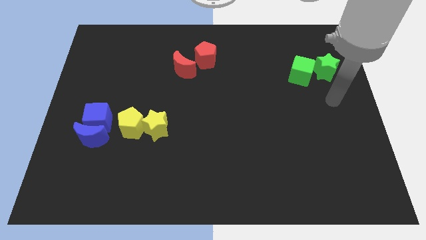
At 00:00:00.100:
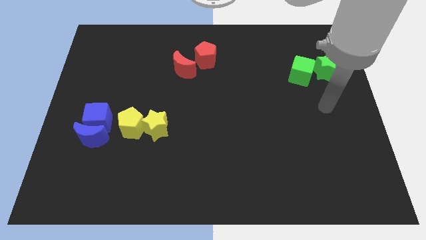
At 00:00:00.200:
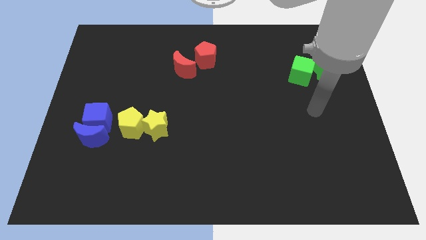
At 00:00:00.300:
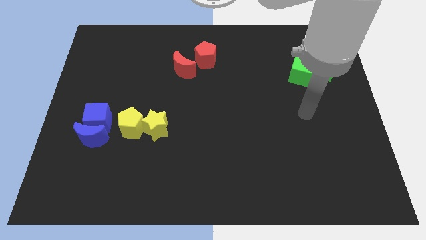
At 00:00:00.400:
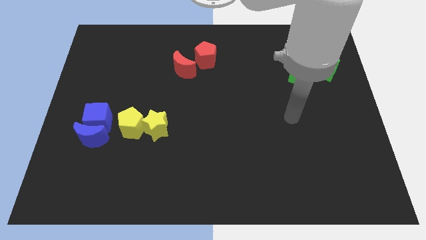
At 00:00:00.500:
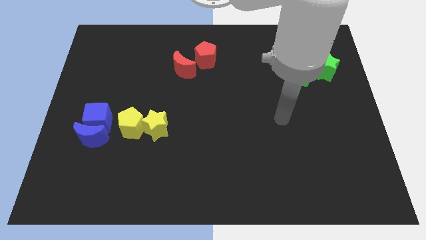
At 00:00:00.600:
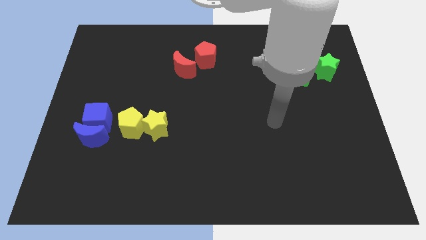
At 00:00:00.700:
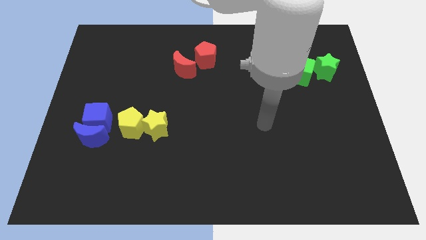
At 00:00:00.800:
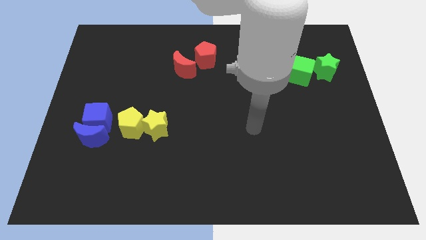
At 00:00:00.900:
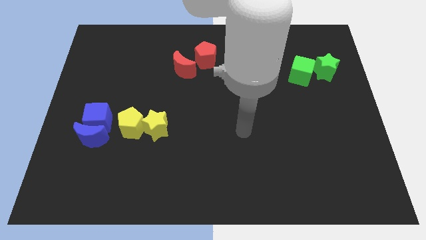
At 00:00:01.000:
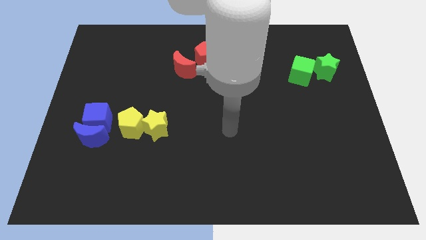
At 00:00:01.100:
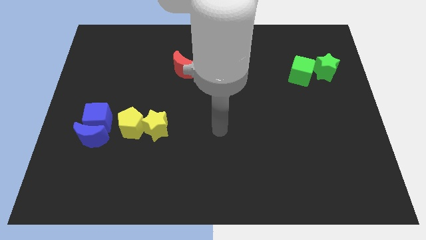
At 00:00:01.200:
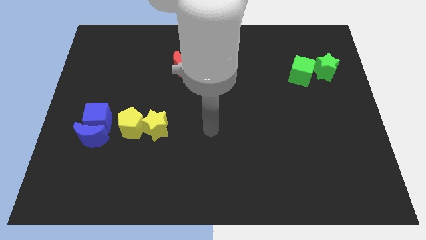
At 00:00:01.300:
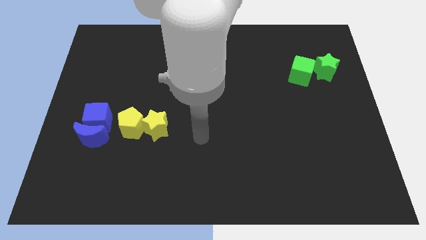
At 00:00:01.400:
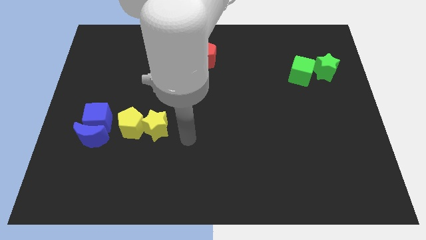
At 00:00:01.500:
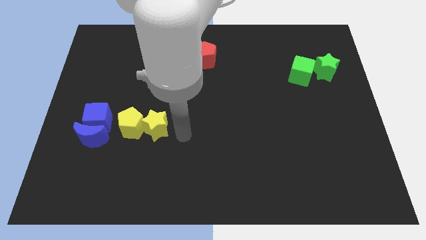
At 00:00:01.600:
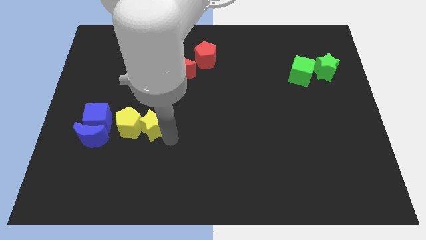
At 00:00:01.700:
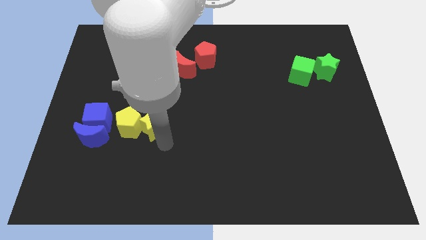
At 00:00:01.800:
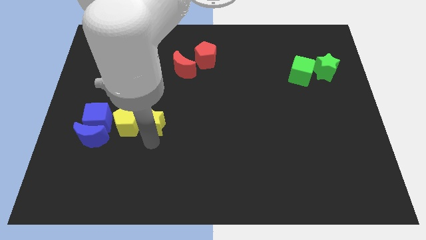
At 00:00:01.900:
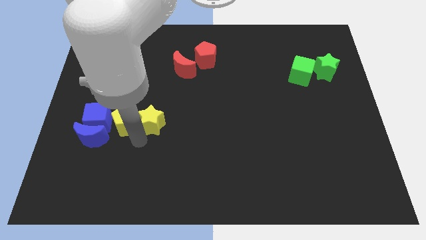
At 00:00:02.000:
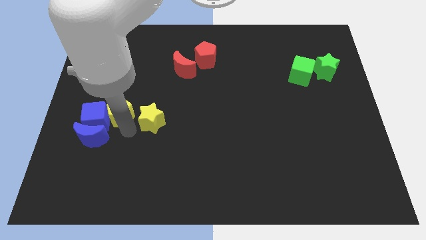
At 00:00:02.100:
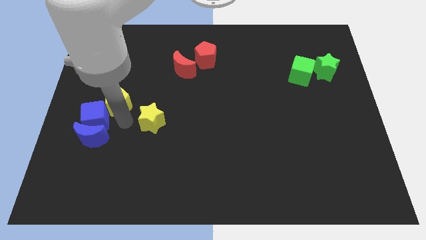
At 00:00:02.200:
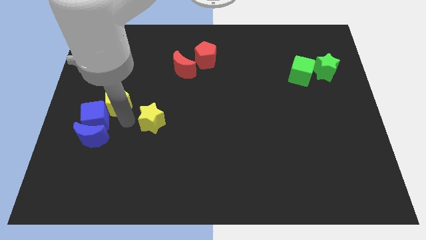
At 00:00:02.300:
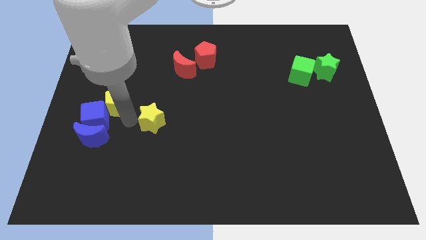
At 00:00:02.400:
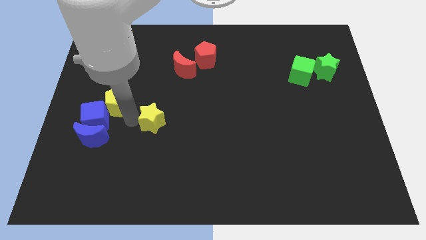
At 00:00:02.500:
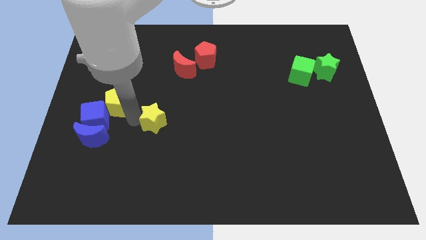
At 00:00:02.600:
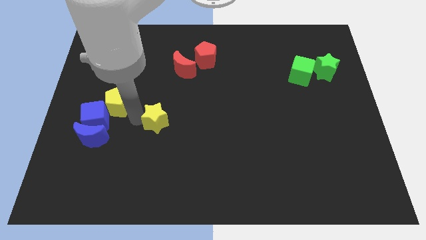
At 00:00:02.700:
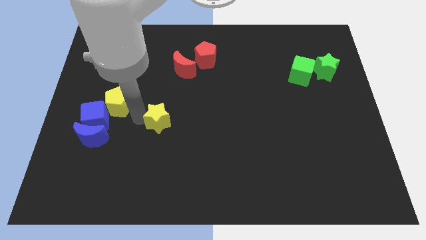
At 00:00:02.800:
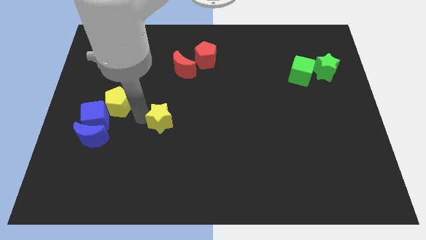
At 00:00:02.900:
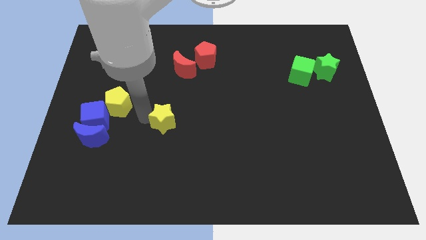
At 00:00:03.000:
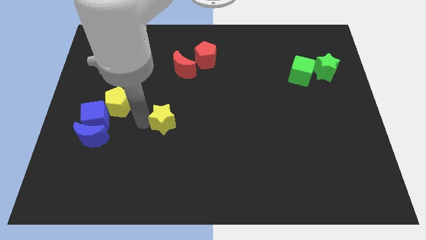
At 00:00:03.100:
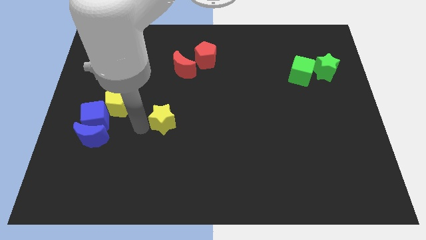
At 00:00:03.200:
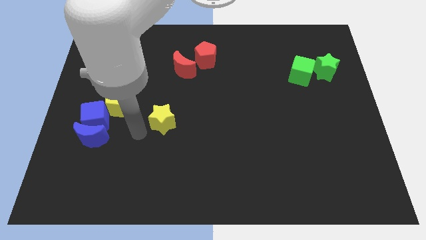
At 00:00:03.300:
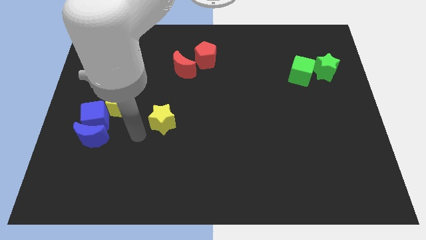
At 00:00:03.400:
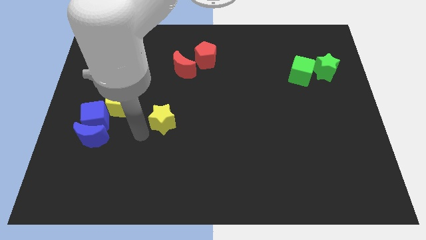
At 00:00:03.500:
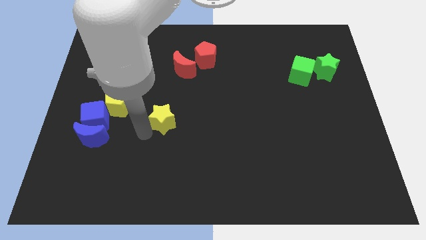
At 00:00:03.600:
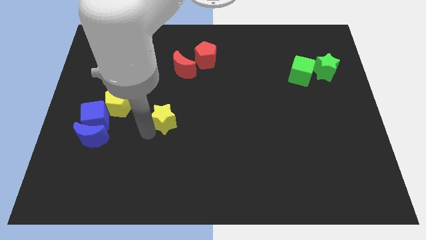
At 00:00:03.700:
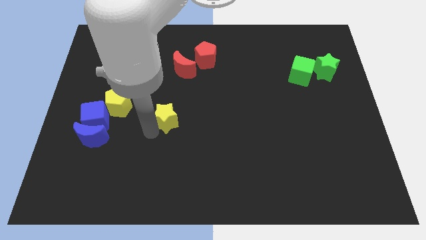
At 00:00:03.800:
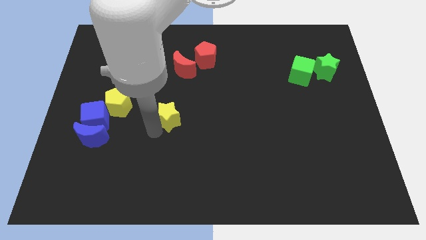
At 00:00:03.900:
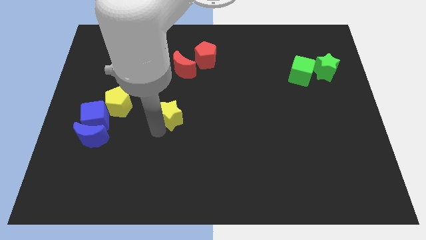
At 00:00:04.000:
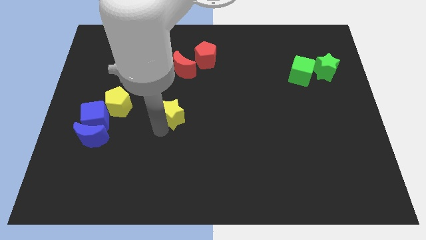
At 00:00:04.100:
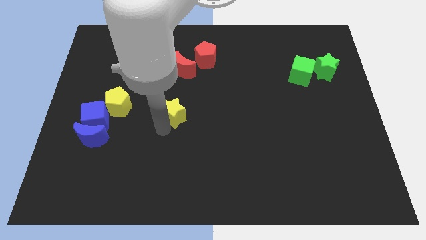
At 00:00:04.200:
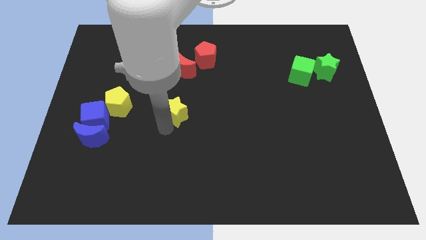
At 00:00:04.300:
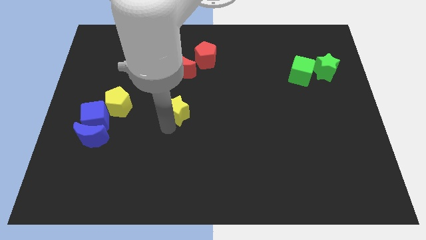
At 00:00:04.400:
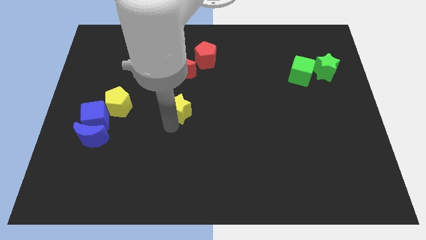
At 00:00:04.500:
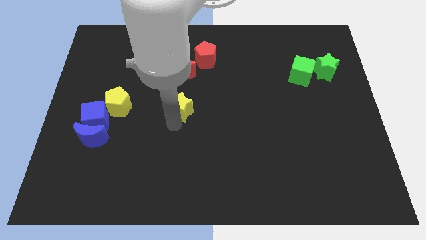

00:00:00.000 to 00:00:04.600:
slightly slide the yellow star up and right

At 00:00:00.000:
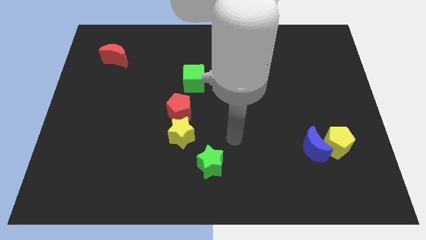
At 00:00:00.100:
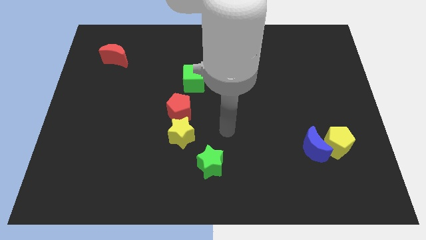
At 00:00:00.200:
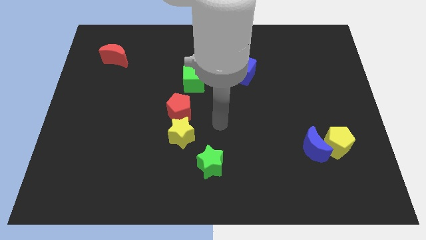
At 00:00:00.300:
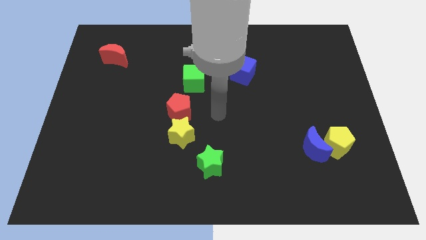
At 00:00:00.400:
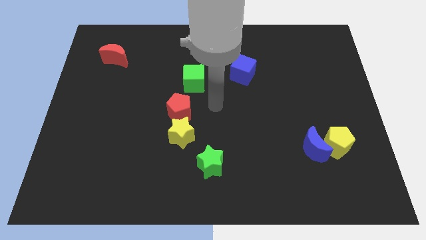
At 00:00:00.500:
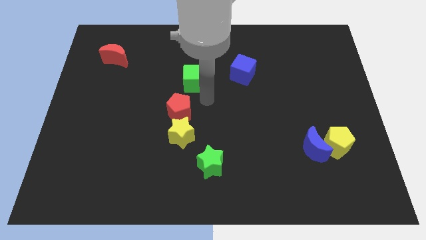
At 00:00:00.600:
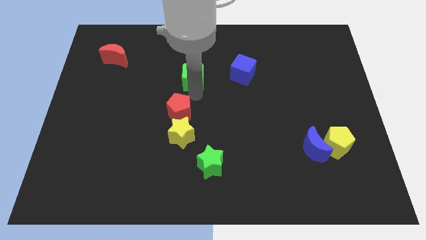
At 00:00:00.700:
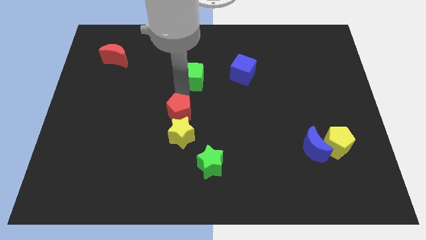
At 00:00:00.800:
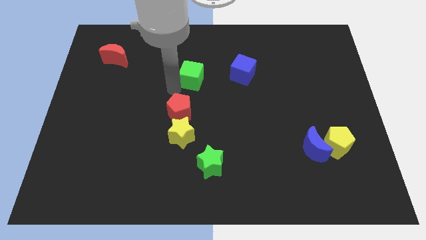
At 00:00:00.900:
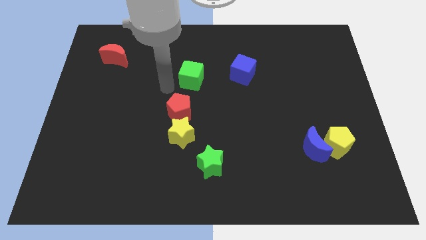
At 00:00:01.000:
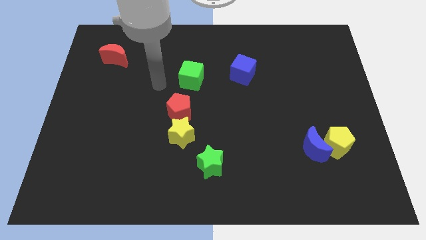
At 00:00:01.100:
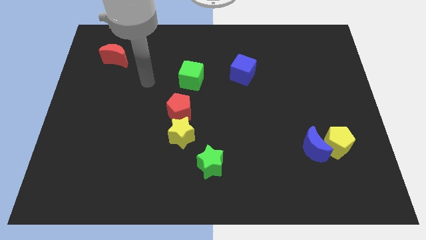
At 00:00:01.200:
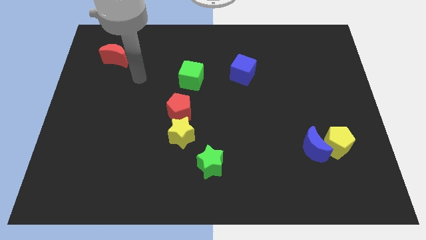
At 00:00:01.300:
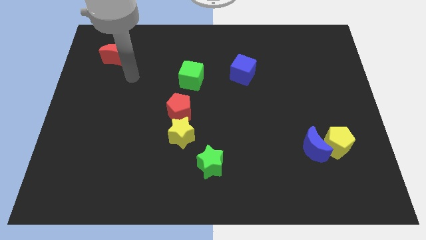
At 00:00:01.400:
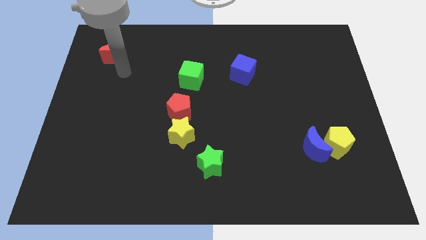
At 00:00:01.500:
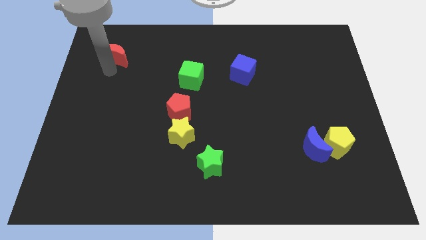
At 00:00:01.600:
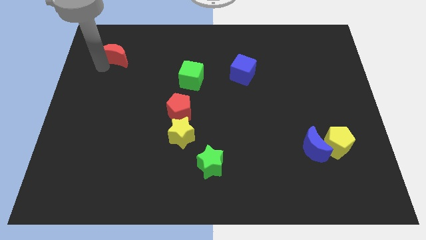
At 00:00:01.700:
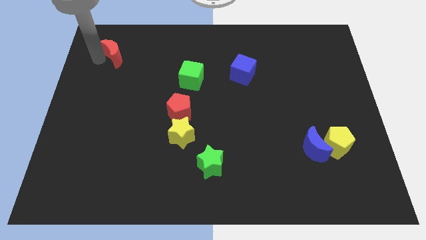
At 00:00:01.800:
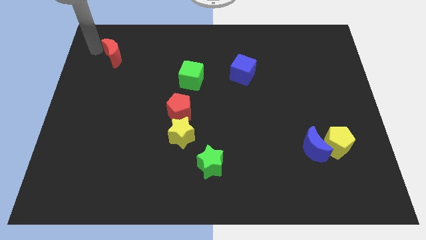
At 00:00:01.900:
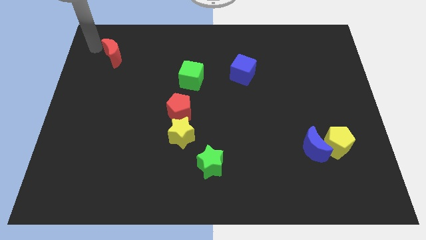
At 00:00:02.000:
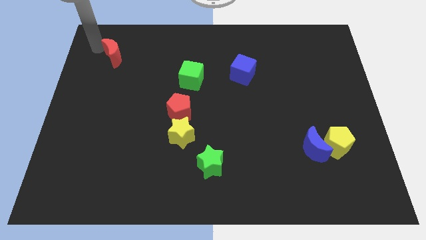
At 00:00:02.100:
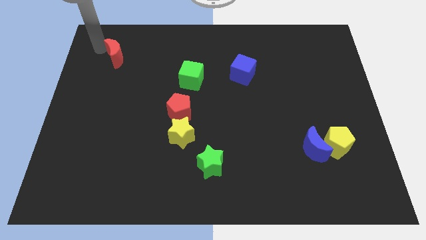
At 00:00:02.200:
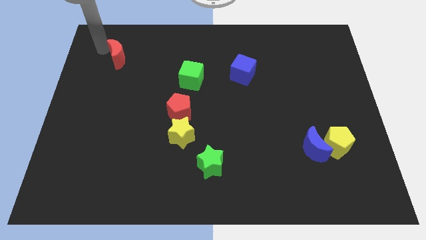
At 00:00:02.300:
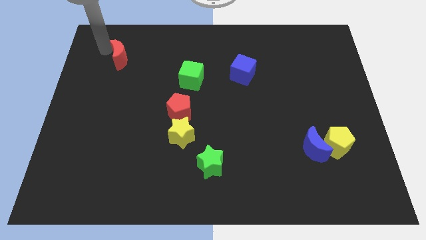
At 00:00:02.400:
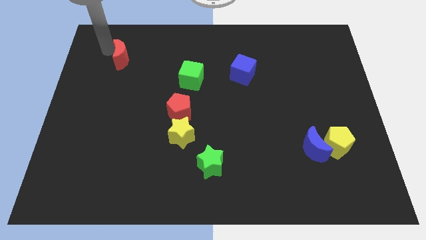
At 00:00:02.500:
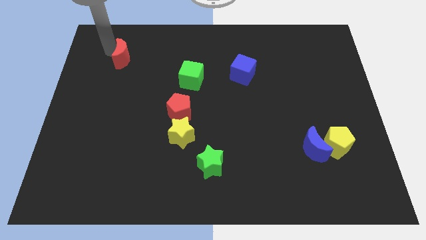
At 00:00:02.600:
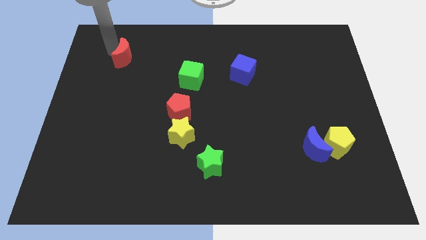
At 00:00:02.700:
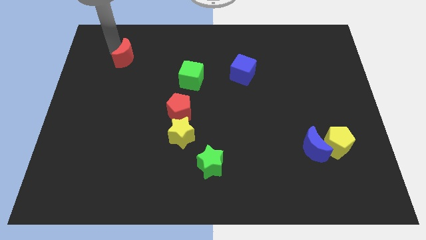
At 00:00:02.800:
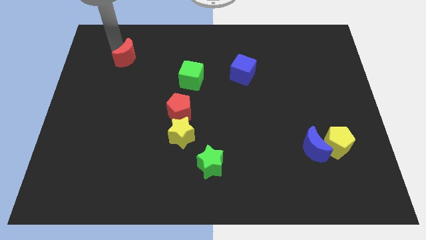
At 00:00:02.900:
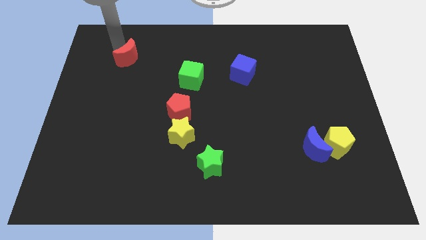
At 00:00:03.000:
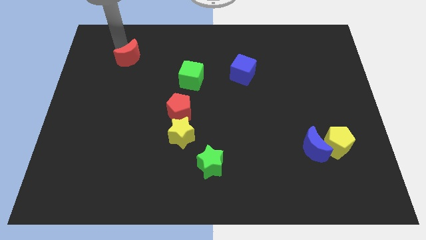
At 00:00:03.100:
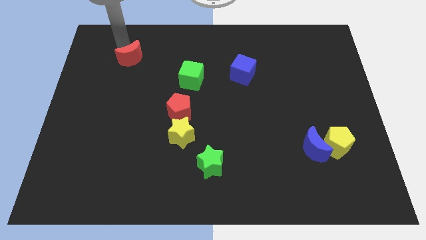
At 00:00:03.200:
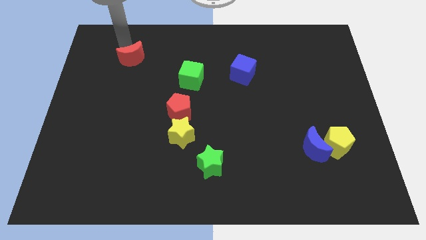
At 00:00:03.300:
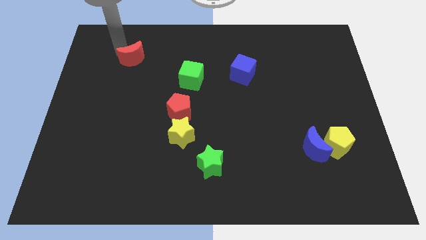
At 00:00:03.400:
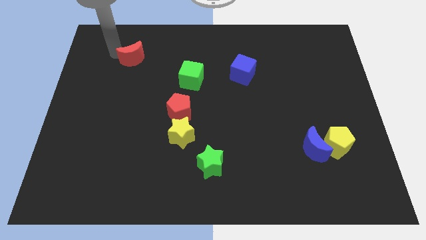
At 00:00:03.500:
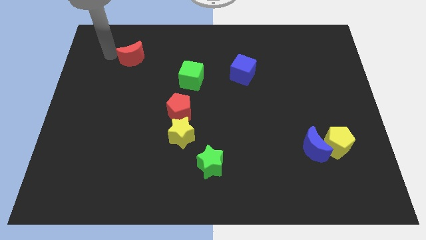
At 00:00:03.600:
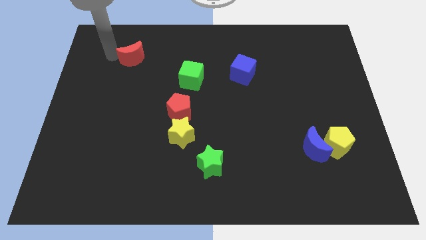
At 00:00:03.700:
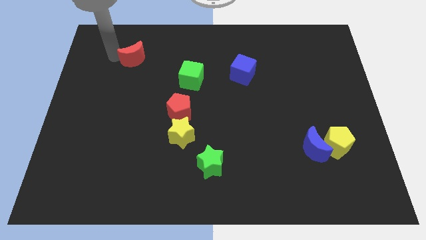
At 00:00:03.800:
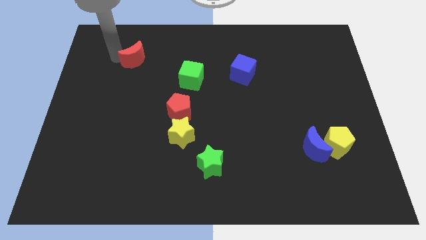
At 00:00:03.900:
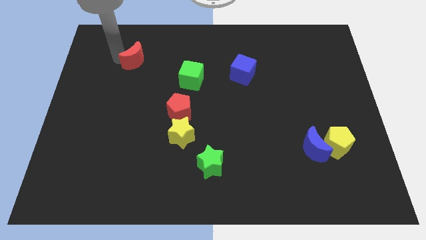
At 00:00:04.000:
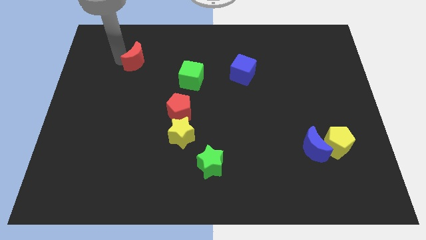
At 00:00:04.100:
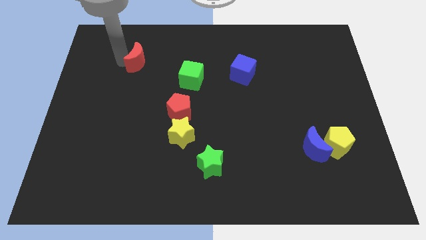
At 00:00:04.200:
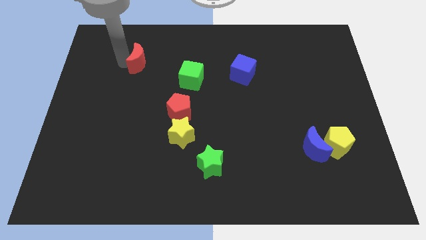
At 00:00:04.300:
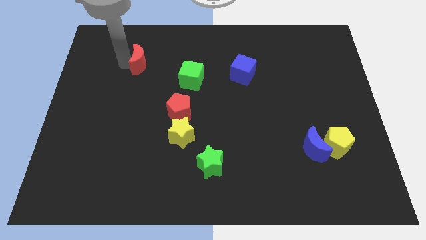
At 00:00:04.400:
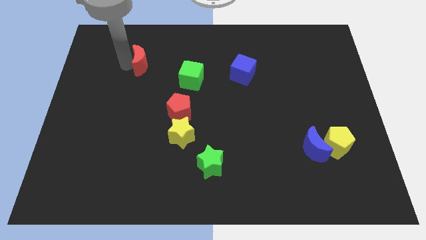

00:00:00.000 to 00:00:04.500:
slide the red moon to the right a little
